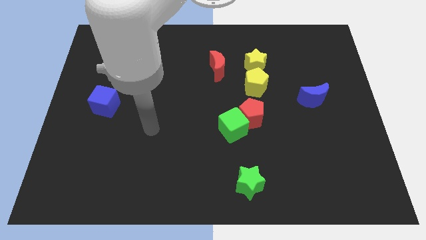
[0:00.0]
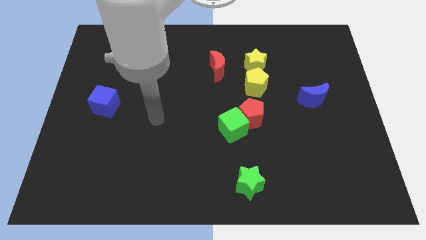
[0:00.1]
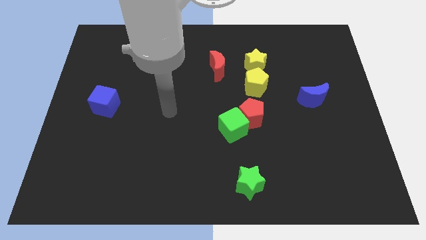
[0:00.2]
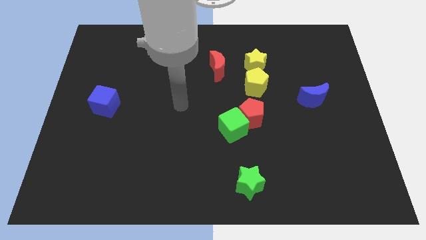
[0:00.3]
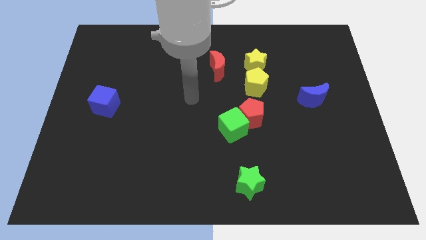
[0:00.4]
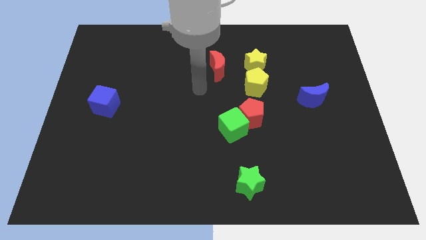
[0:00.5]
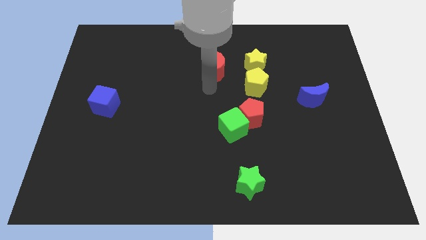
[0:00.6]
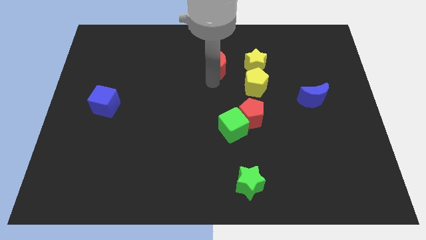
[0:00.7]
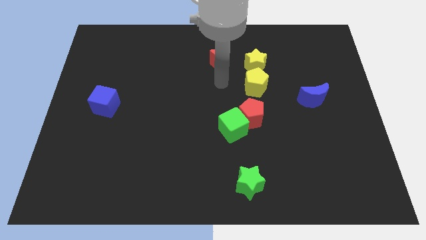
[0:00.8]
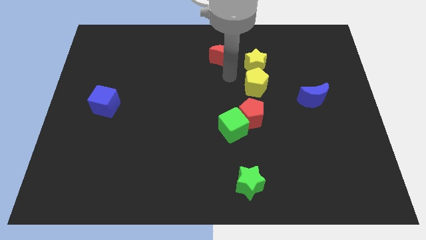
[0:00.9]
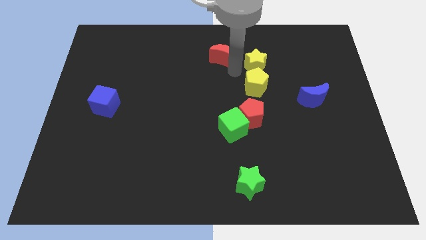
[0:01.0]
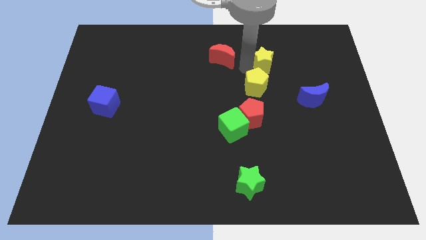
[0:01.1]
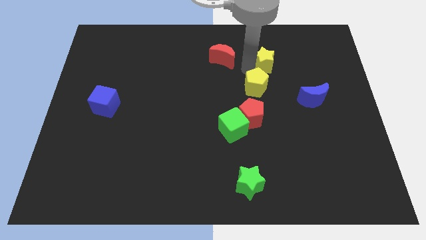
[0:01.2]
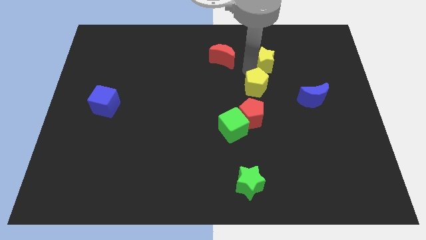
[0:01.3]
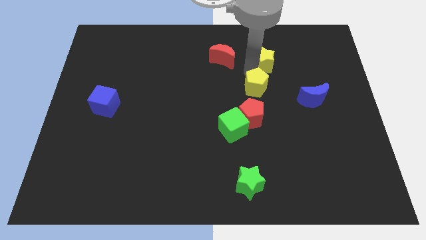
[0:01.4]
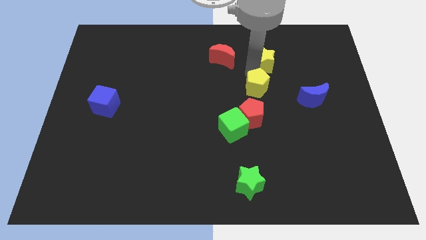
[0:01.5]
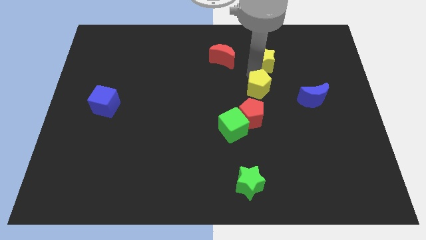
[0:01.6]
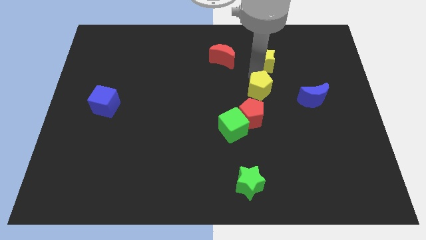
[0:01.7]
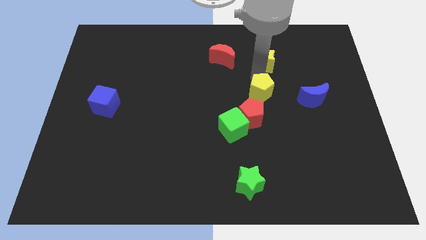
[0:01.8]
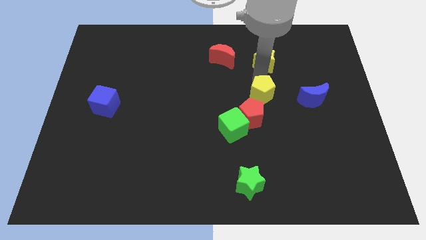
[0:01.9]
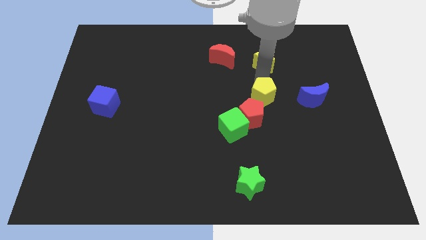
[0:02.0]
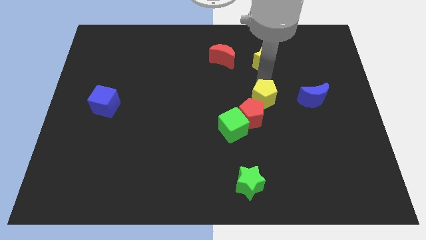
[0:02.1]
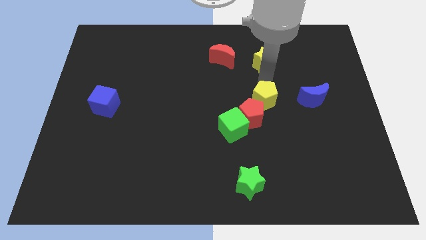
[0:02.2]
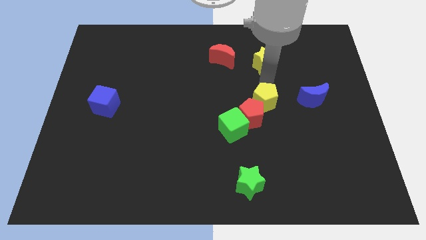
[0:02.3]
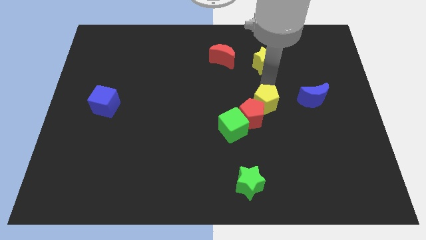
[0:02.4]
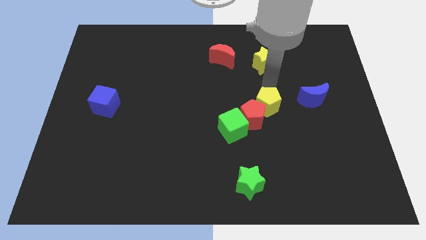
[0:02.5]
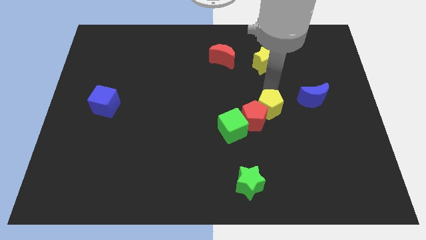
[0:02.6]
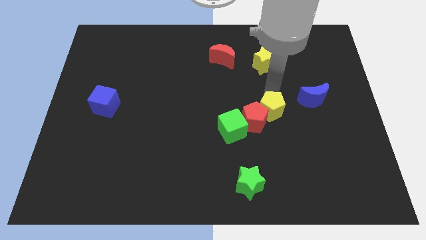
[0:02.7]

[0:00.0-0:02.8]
slide the yellow pentagon down a bit

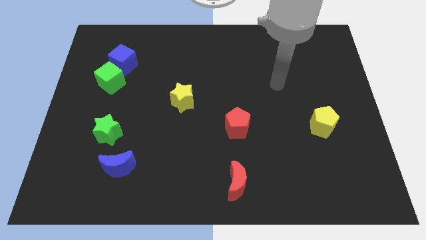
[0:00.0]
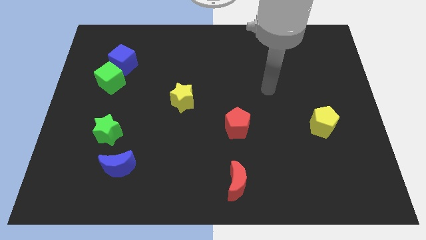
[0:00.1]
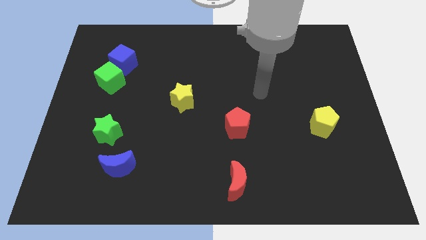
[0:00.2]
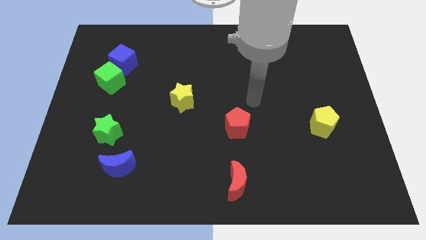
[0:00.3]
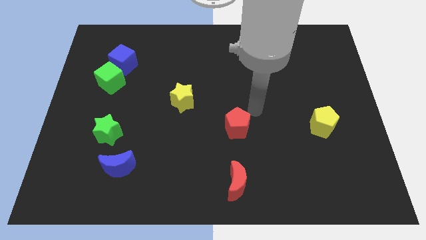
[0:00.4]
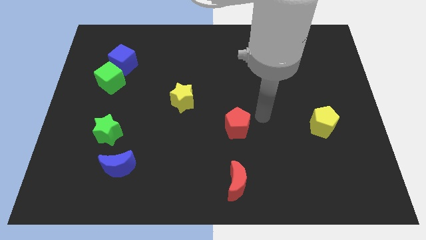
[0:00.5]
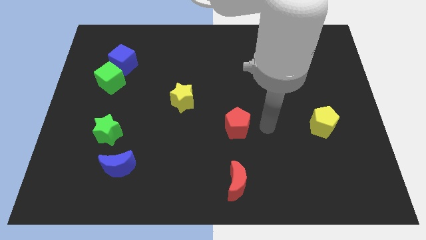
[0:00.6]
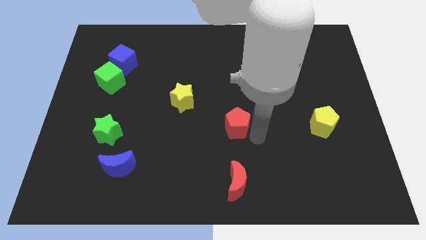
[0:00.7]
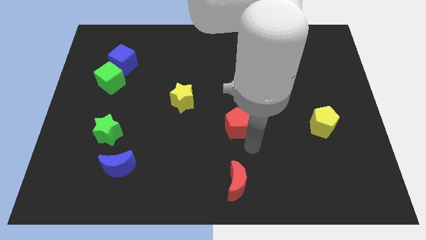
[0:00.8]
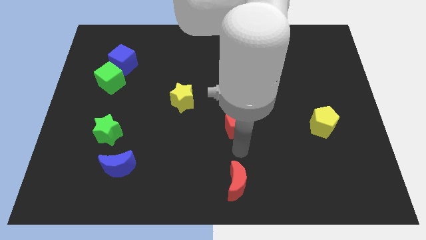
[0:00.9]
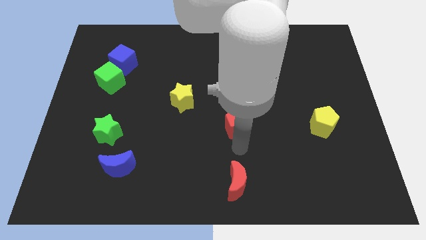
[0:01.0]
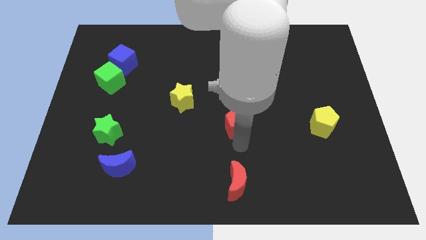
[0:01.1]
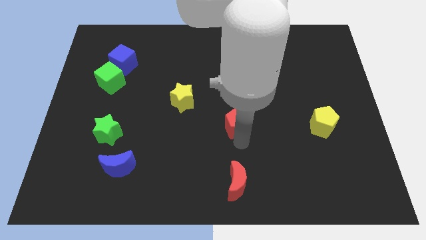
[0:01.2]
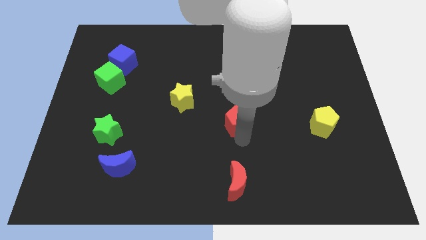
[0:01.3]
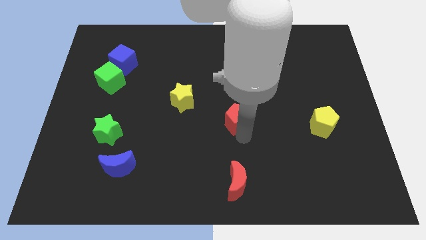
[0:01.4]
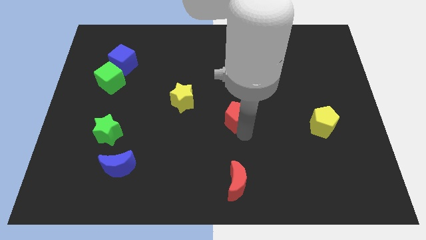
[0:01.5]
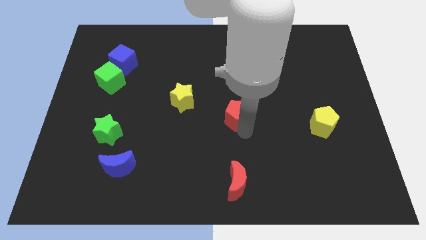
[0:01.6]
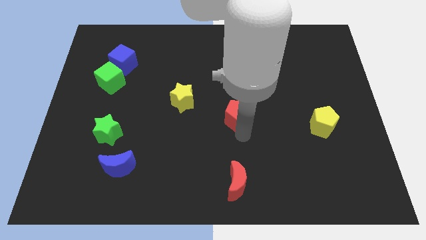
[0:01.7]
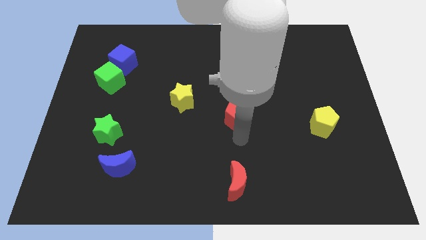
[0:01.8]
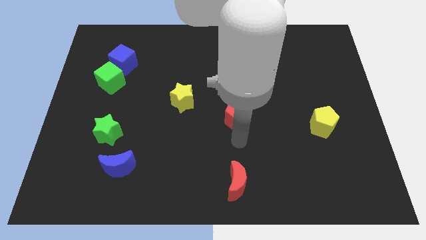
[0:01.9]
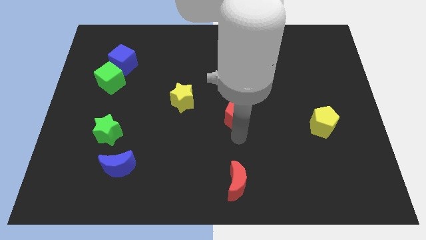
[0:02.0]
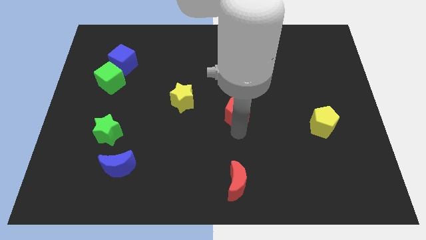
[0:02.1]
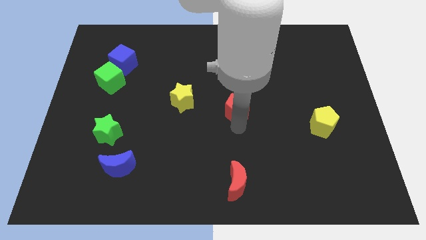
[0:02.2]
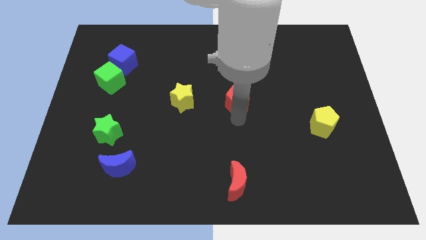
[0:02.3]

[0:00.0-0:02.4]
slightly slide the red pentagon up

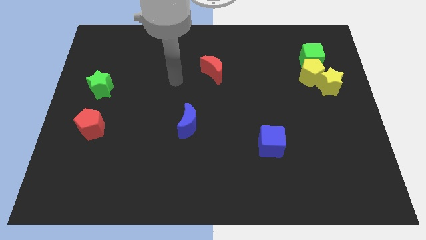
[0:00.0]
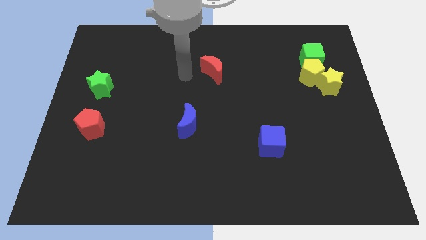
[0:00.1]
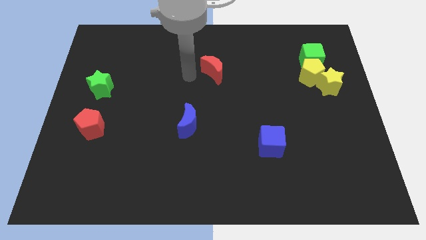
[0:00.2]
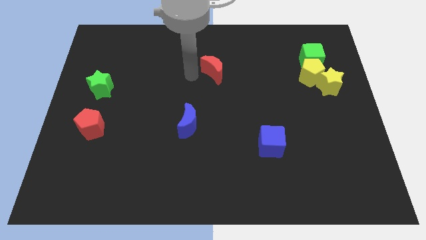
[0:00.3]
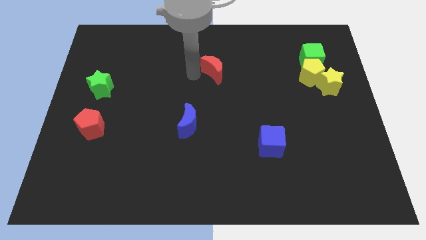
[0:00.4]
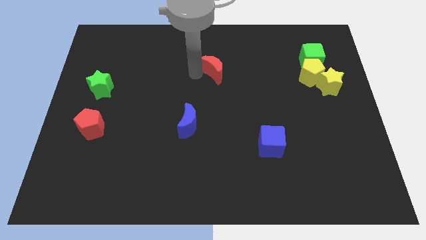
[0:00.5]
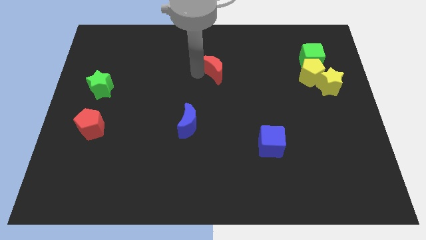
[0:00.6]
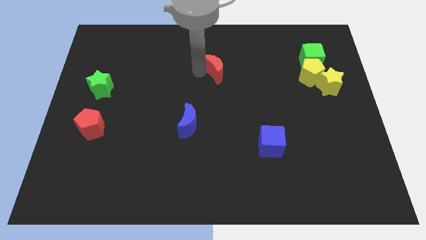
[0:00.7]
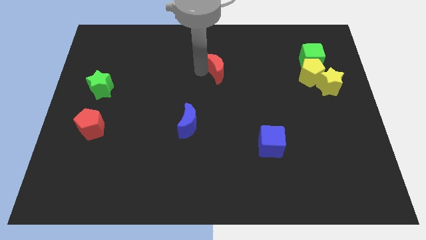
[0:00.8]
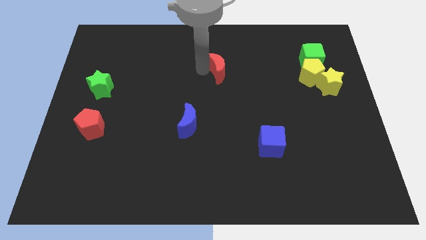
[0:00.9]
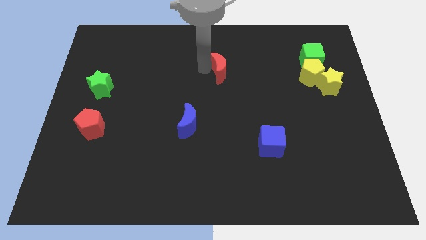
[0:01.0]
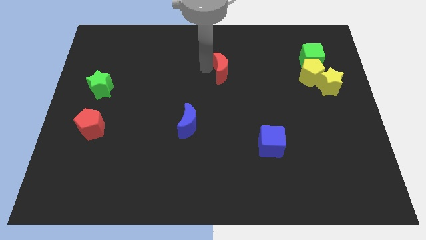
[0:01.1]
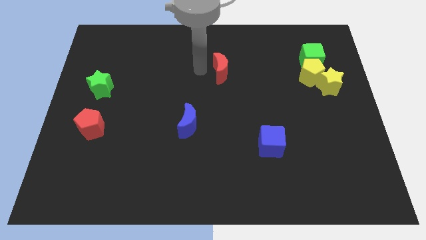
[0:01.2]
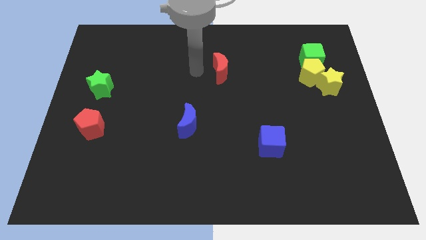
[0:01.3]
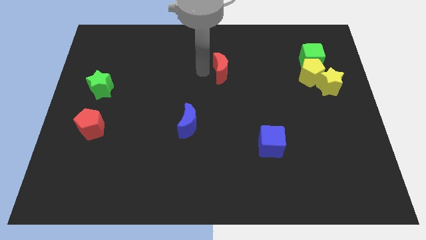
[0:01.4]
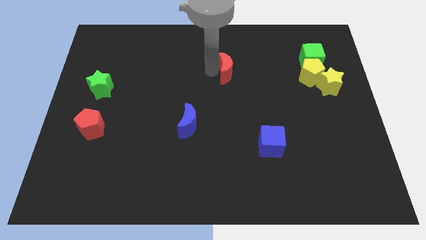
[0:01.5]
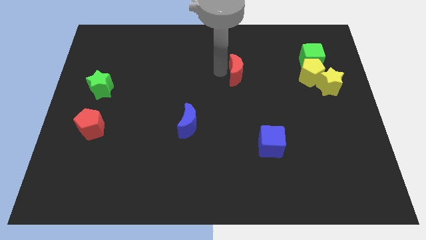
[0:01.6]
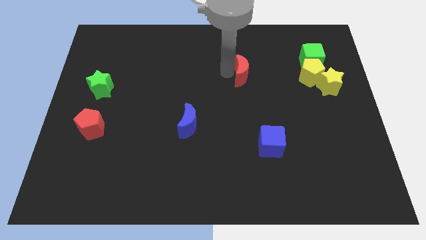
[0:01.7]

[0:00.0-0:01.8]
push the red moon to the right a little

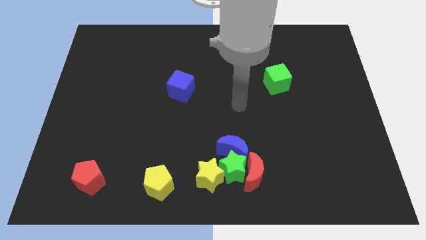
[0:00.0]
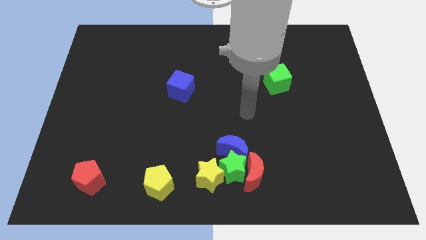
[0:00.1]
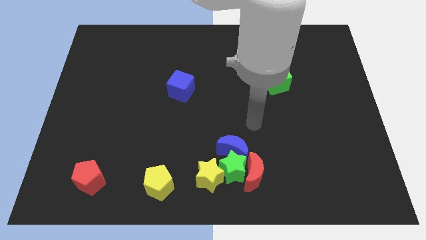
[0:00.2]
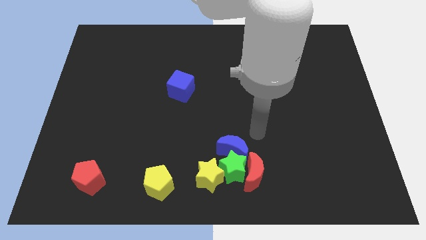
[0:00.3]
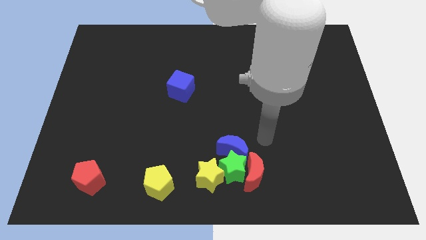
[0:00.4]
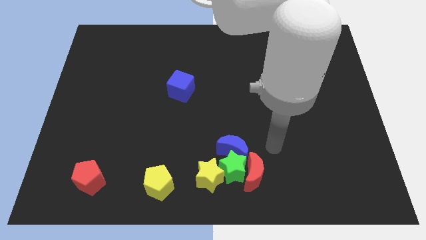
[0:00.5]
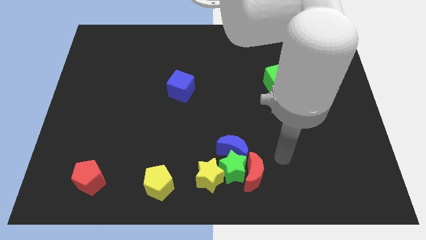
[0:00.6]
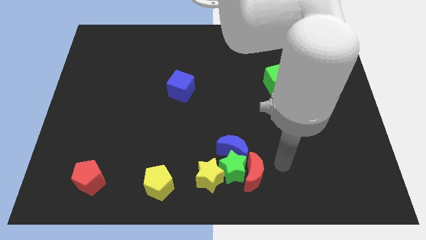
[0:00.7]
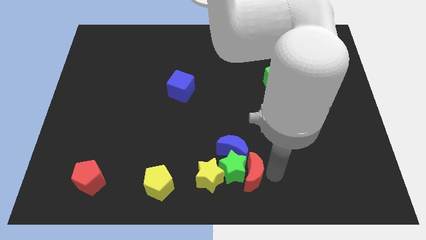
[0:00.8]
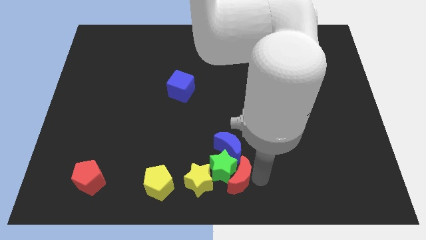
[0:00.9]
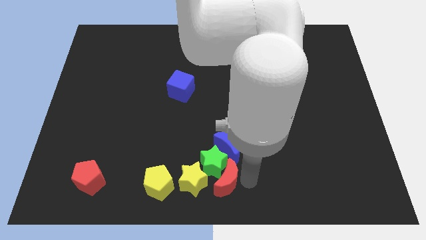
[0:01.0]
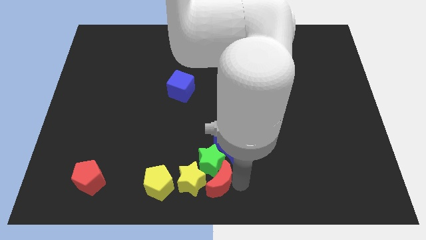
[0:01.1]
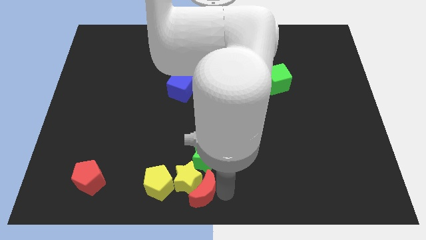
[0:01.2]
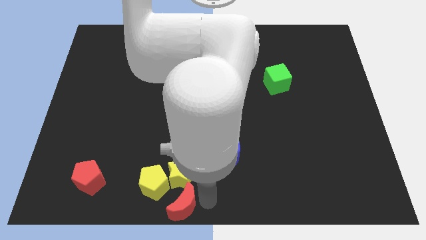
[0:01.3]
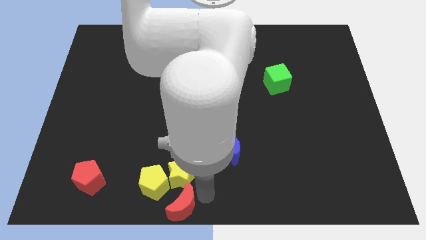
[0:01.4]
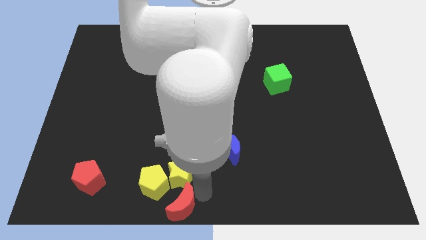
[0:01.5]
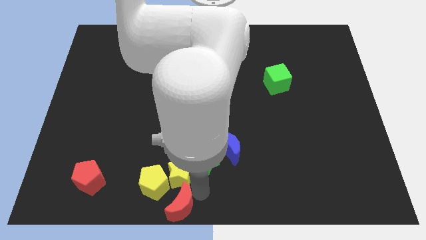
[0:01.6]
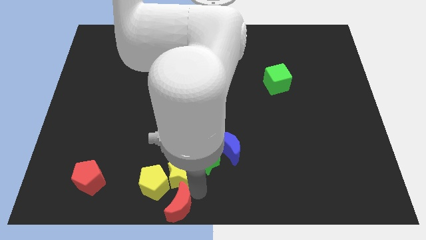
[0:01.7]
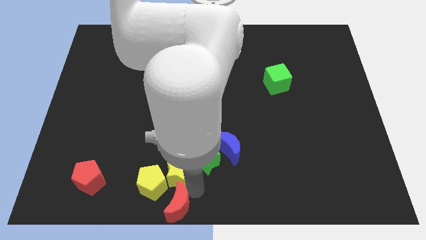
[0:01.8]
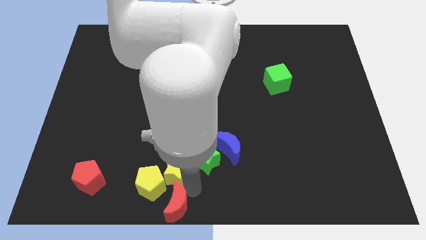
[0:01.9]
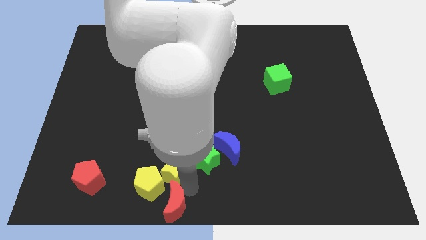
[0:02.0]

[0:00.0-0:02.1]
push the yellow star a bit to the left
